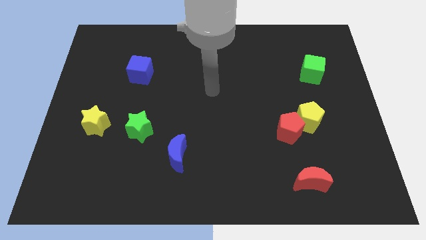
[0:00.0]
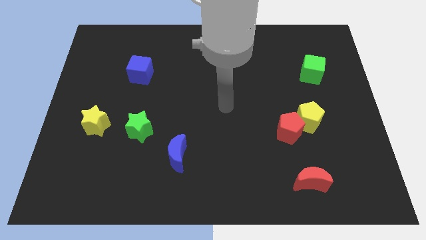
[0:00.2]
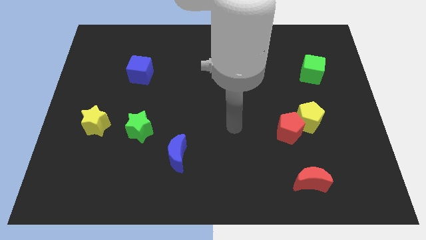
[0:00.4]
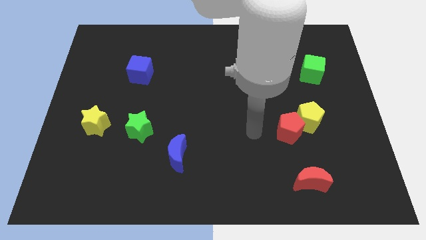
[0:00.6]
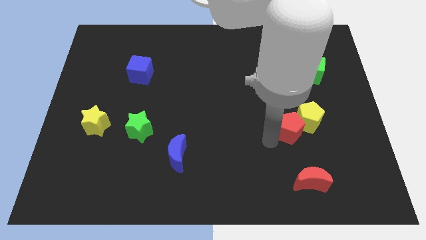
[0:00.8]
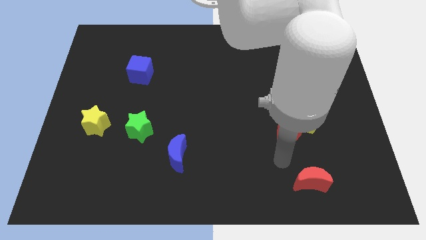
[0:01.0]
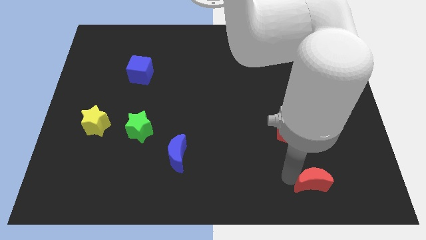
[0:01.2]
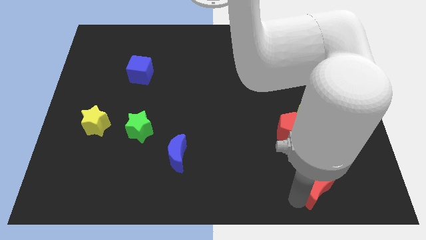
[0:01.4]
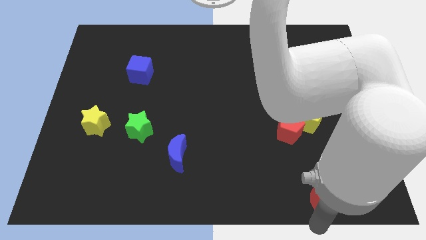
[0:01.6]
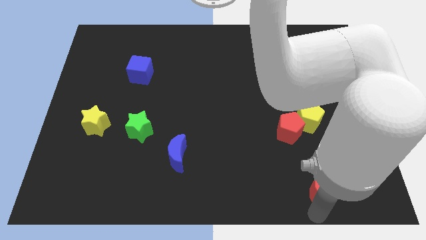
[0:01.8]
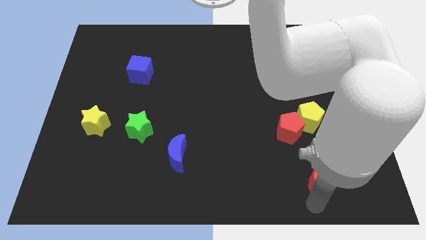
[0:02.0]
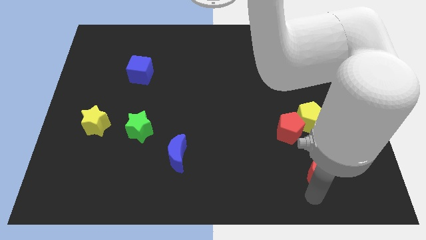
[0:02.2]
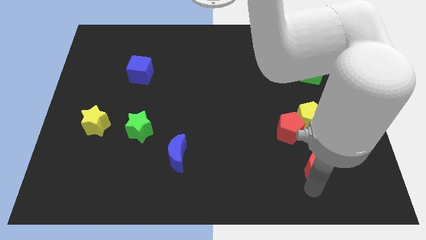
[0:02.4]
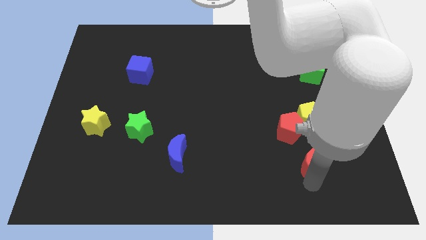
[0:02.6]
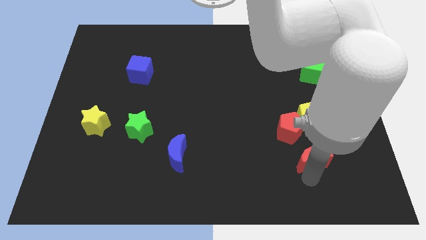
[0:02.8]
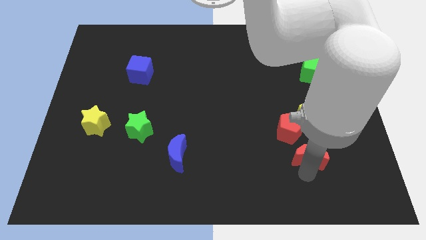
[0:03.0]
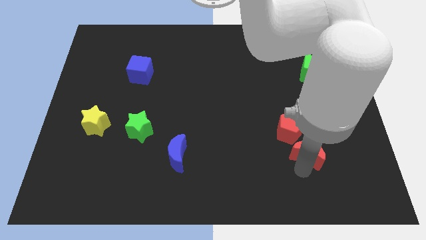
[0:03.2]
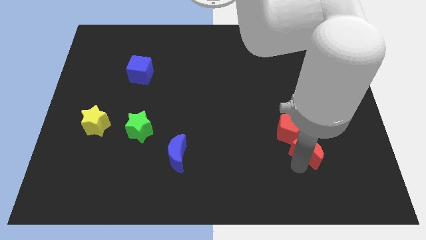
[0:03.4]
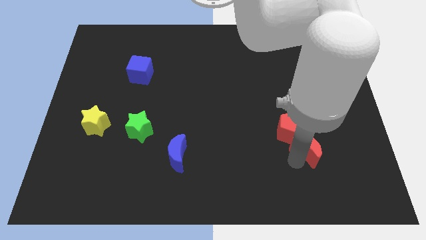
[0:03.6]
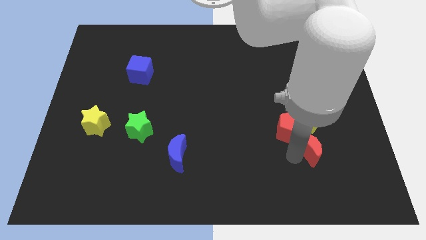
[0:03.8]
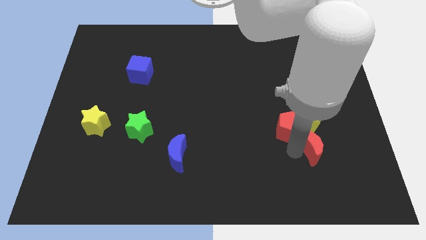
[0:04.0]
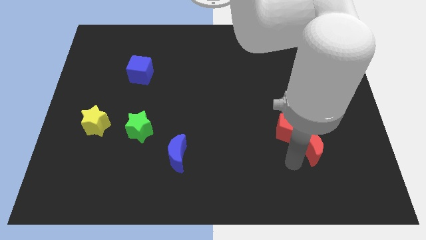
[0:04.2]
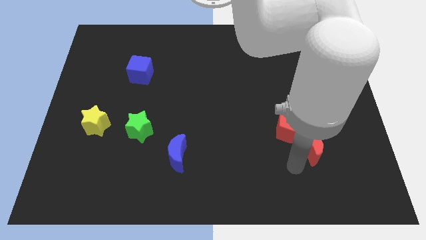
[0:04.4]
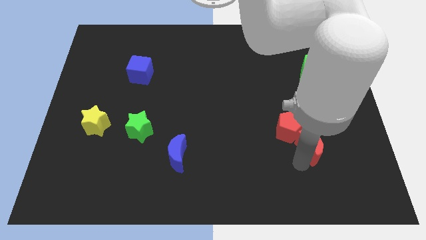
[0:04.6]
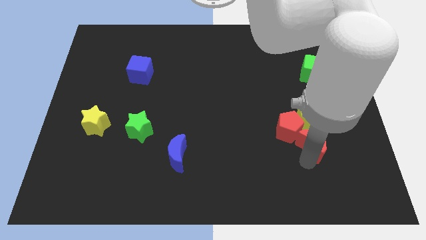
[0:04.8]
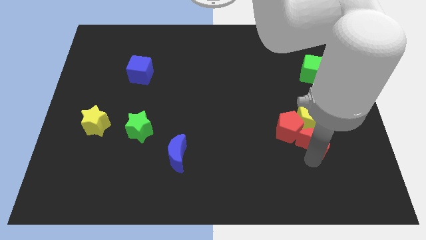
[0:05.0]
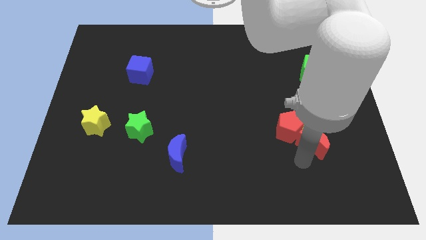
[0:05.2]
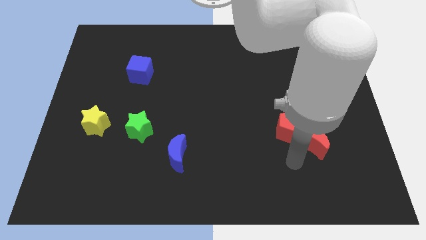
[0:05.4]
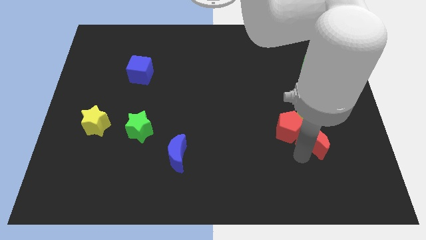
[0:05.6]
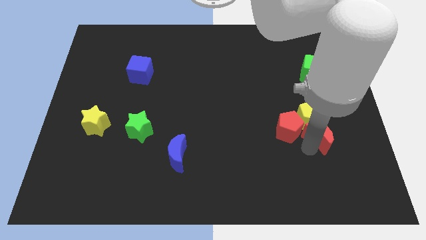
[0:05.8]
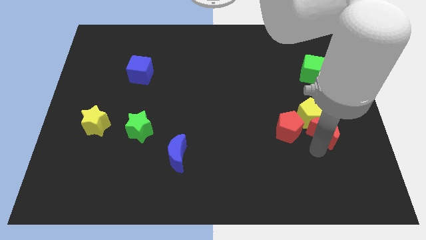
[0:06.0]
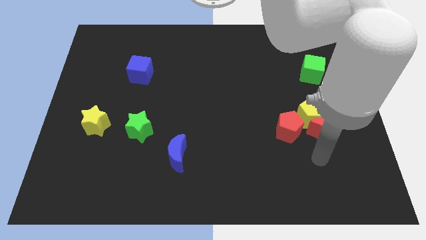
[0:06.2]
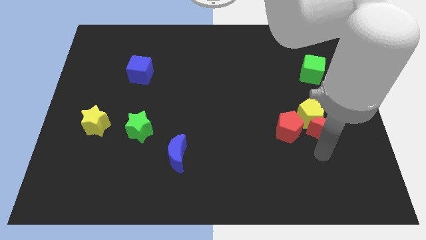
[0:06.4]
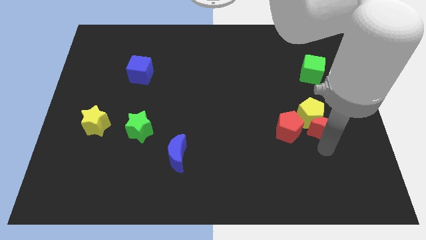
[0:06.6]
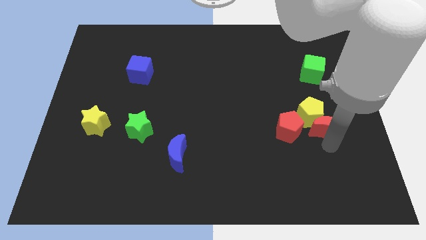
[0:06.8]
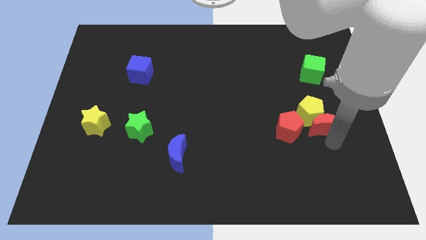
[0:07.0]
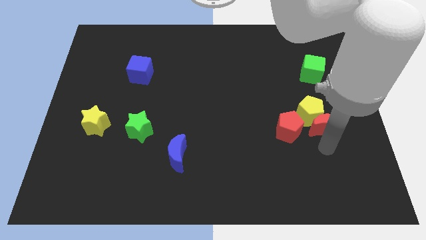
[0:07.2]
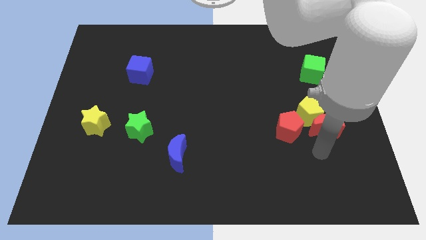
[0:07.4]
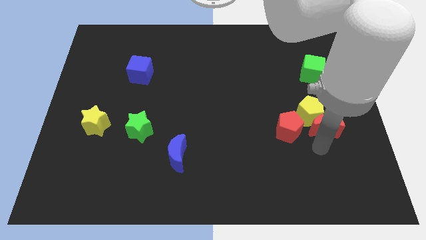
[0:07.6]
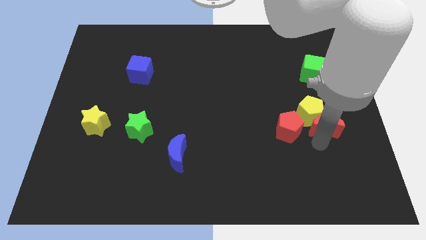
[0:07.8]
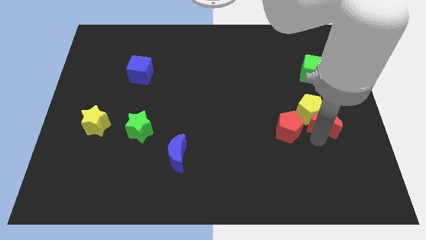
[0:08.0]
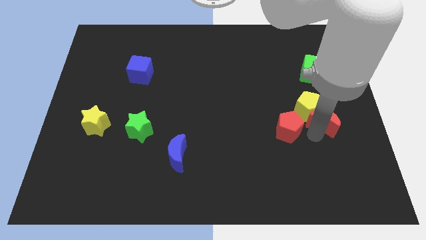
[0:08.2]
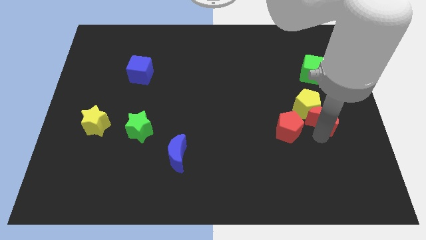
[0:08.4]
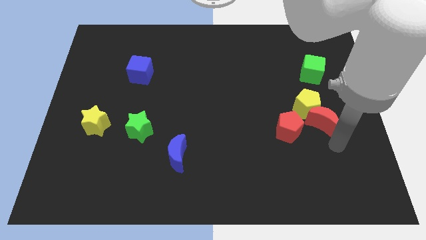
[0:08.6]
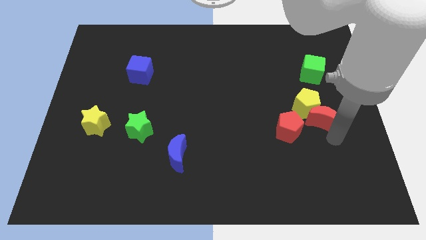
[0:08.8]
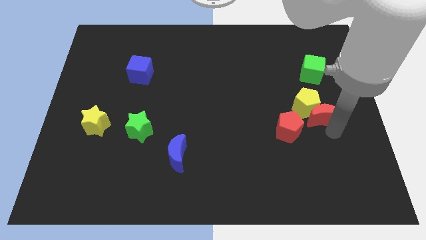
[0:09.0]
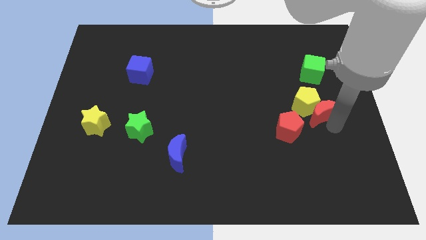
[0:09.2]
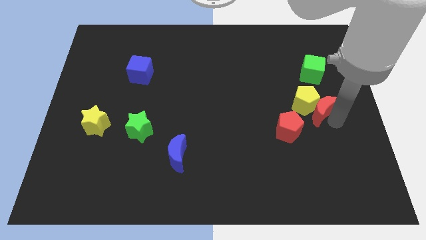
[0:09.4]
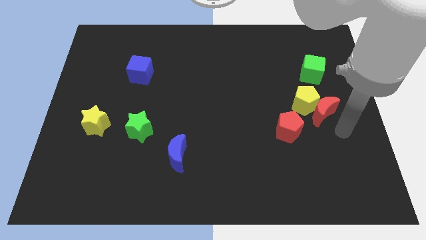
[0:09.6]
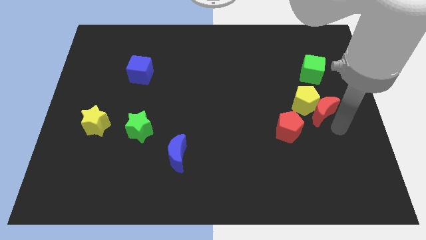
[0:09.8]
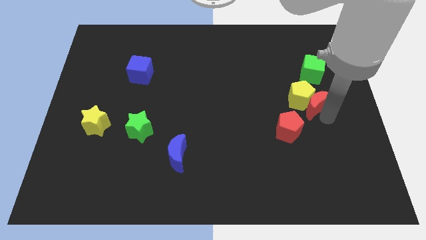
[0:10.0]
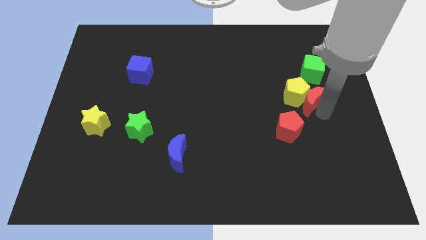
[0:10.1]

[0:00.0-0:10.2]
push the red moon upwards

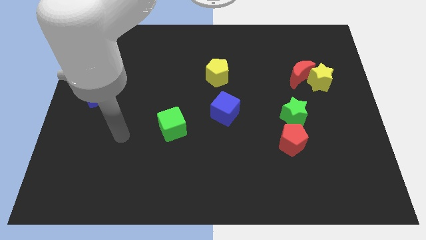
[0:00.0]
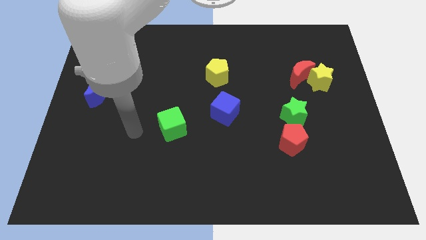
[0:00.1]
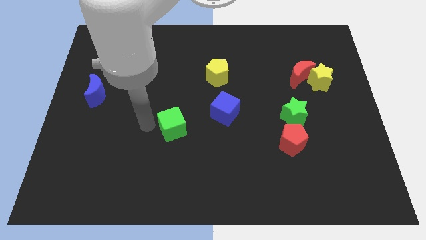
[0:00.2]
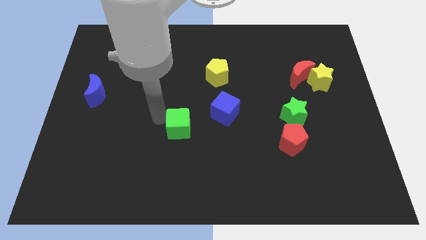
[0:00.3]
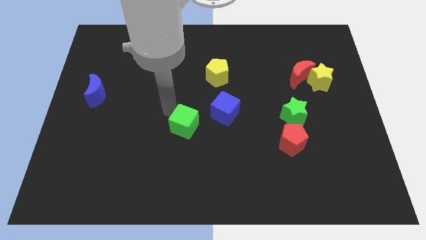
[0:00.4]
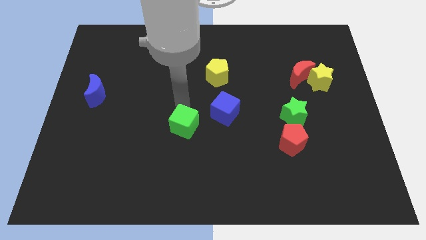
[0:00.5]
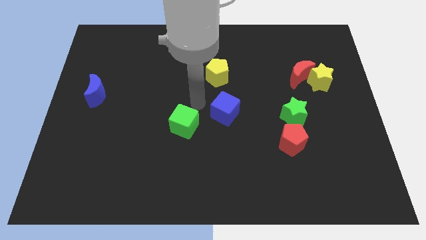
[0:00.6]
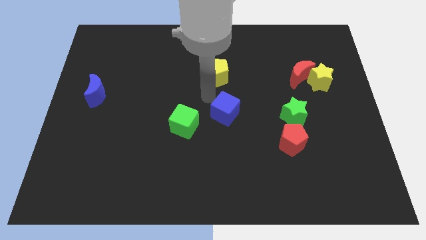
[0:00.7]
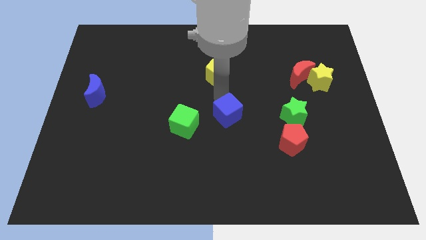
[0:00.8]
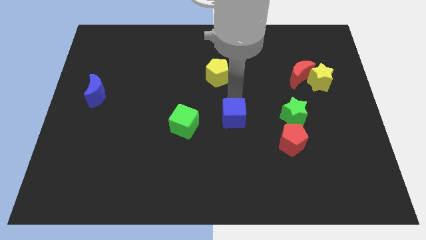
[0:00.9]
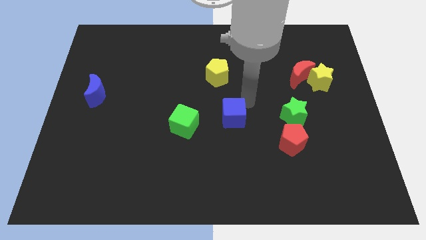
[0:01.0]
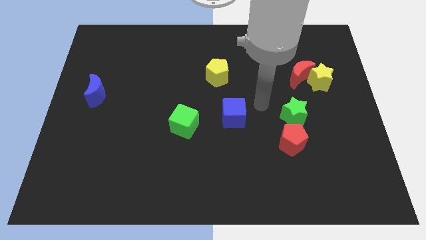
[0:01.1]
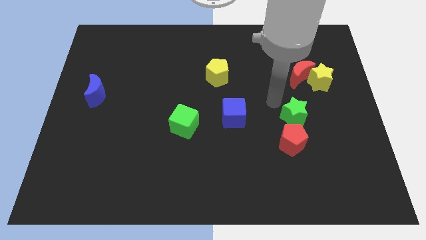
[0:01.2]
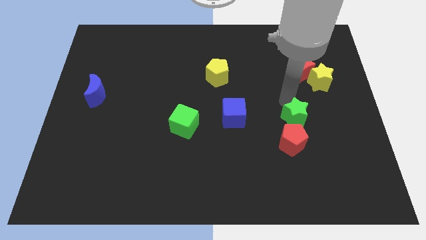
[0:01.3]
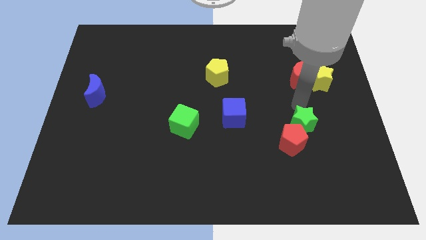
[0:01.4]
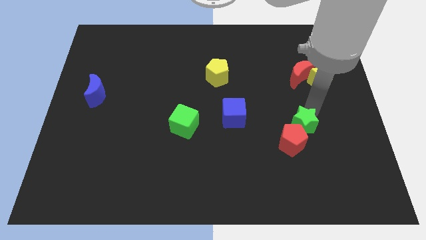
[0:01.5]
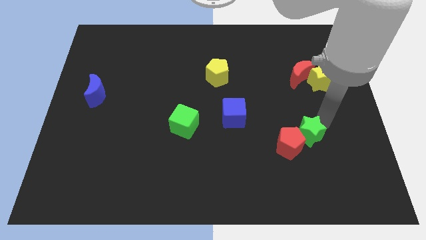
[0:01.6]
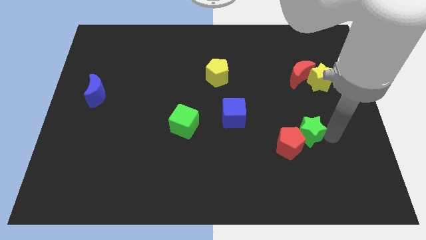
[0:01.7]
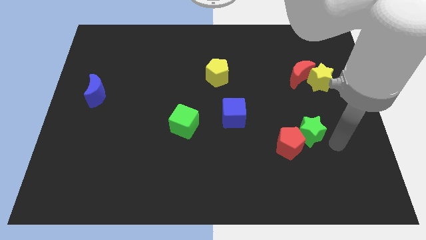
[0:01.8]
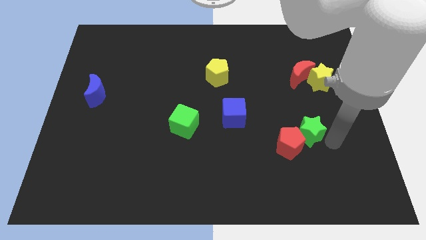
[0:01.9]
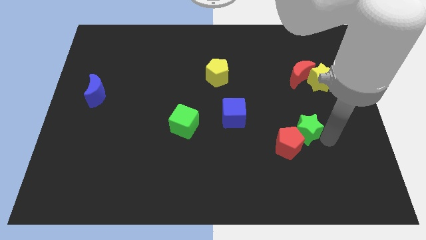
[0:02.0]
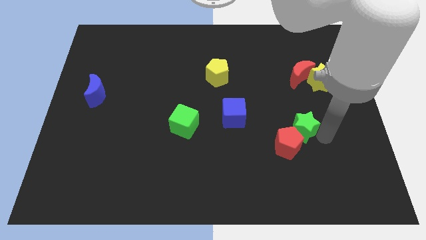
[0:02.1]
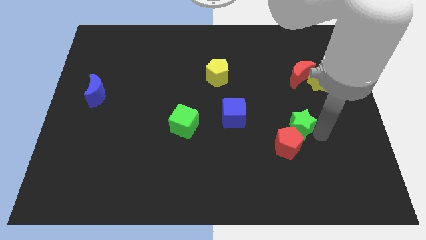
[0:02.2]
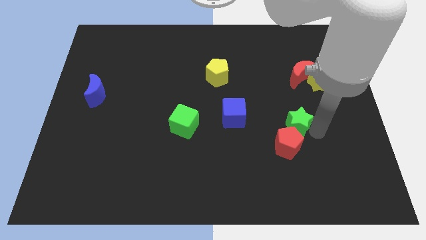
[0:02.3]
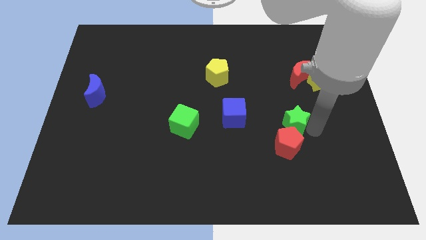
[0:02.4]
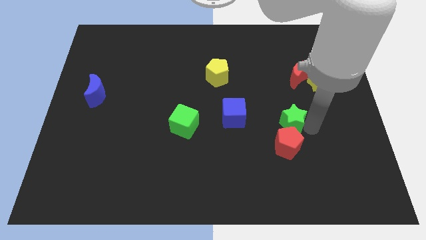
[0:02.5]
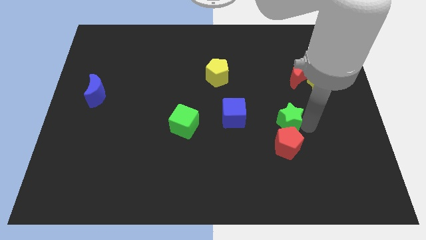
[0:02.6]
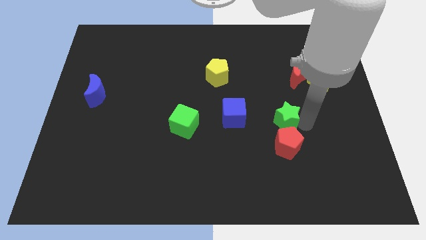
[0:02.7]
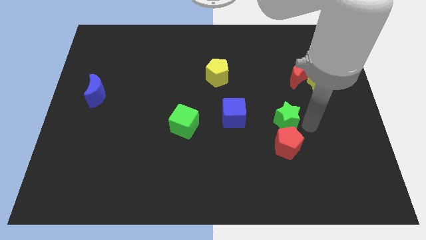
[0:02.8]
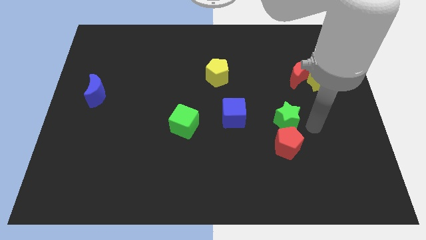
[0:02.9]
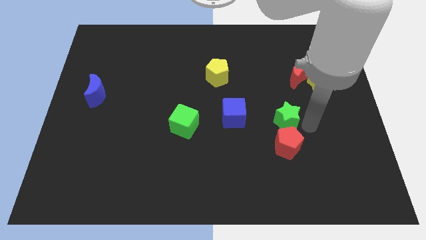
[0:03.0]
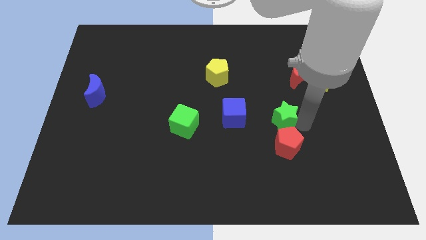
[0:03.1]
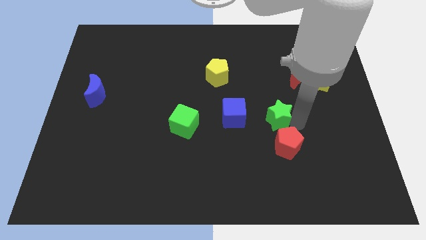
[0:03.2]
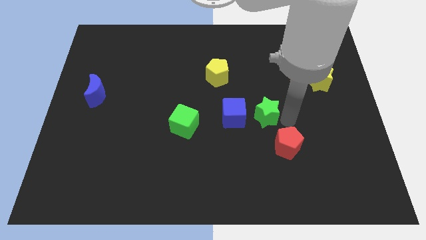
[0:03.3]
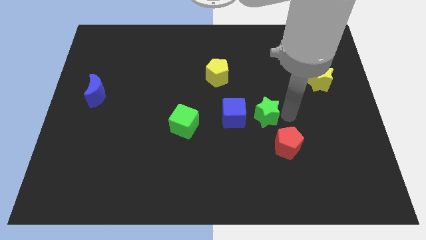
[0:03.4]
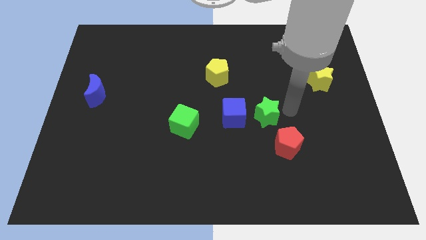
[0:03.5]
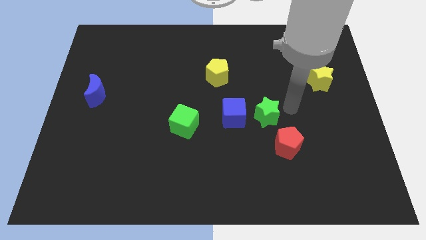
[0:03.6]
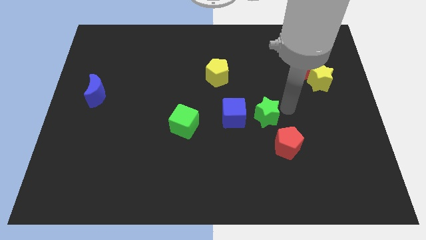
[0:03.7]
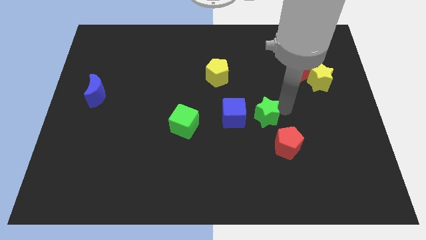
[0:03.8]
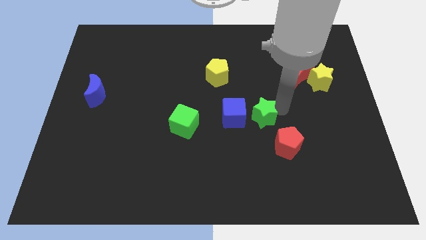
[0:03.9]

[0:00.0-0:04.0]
slightly push the green star to the left
